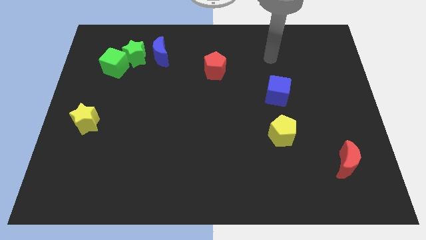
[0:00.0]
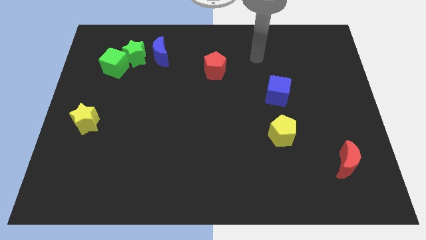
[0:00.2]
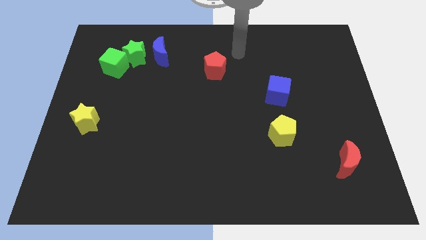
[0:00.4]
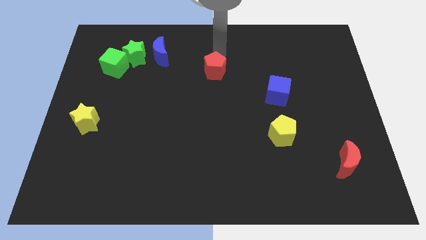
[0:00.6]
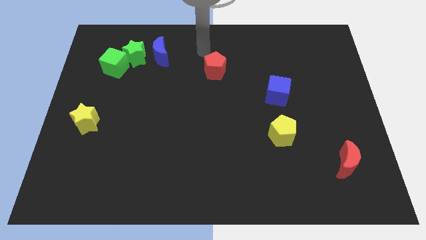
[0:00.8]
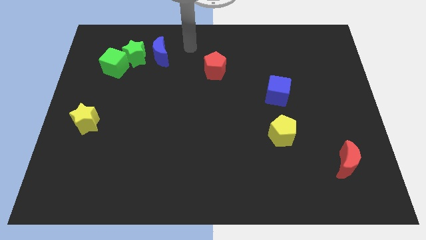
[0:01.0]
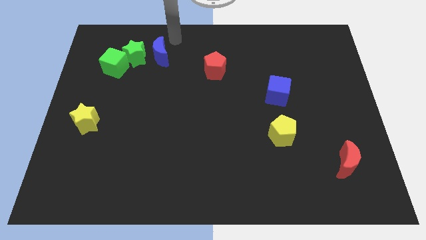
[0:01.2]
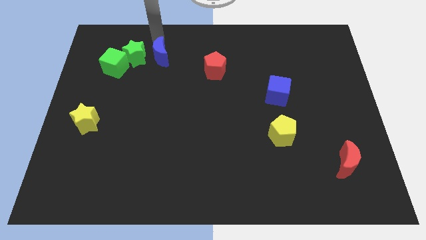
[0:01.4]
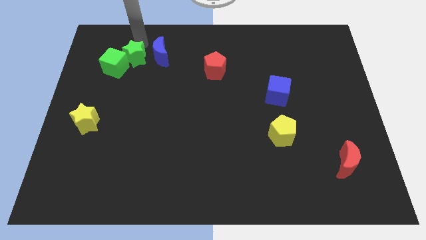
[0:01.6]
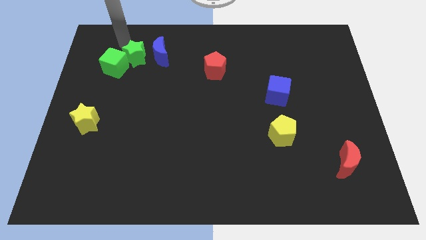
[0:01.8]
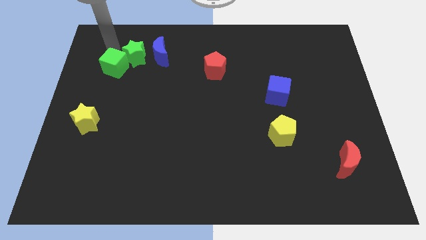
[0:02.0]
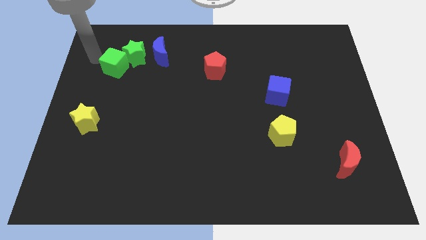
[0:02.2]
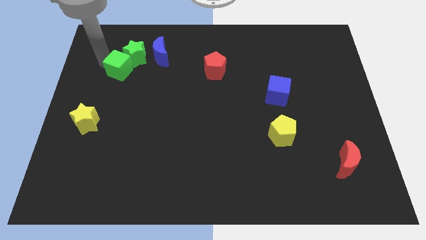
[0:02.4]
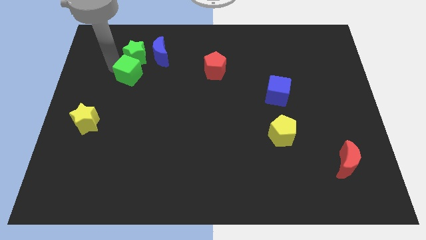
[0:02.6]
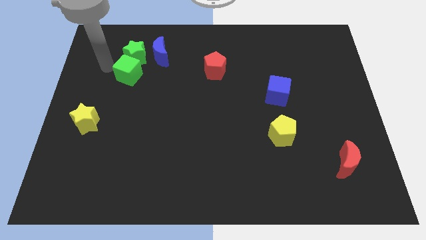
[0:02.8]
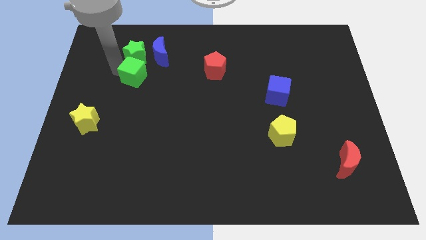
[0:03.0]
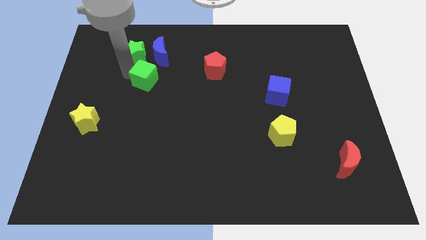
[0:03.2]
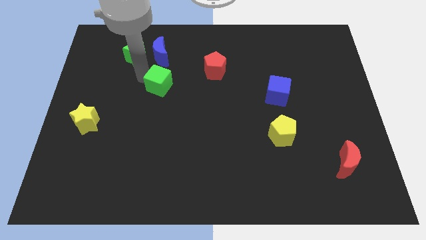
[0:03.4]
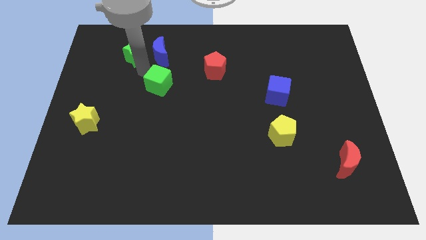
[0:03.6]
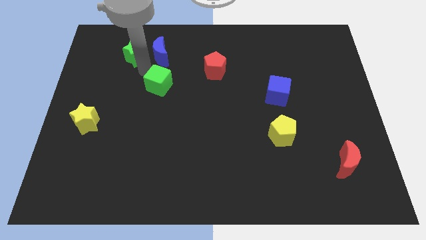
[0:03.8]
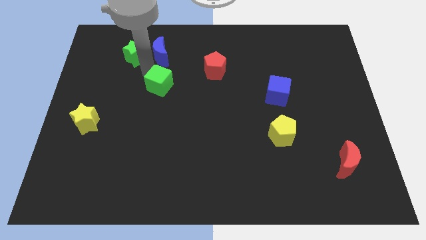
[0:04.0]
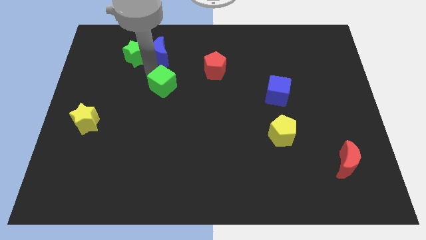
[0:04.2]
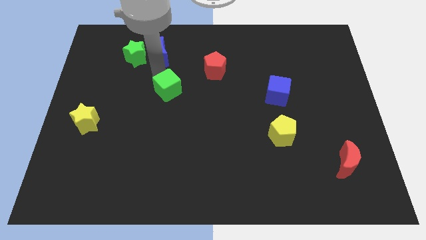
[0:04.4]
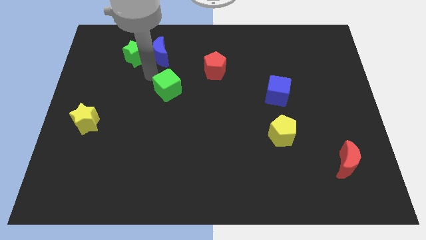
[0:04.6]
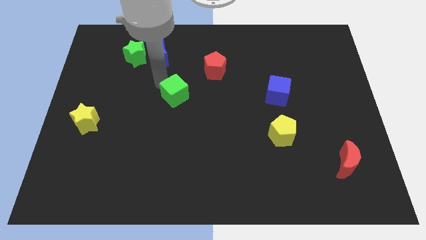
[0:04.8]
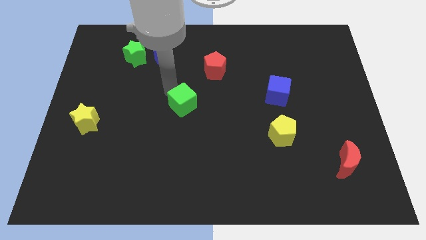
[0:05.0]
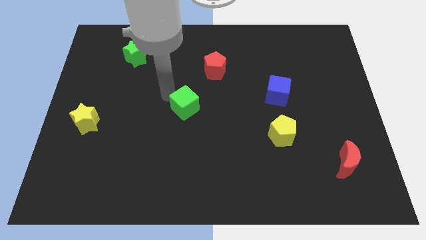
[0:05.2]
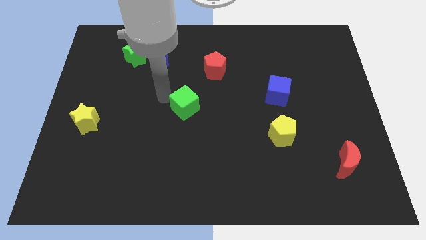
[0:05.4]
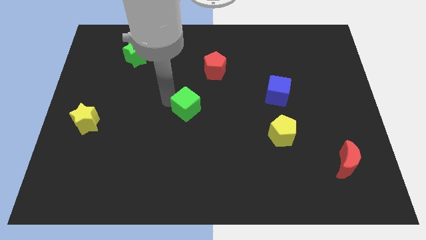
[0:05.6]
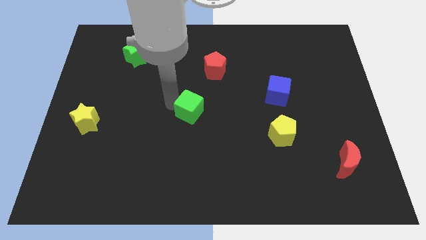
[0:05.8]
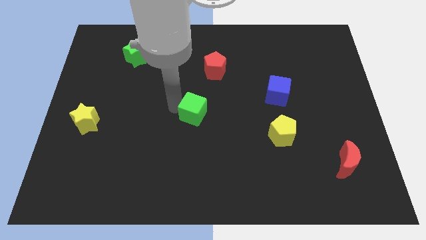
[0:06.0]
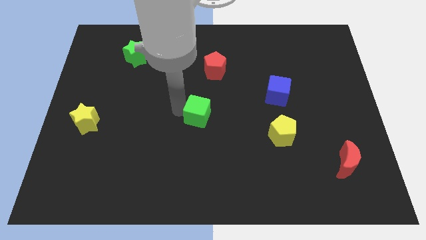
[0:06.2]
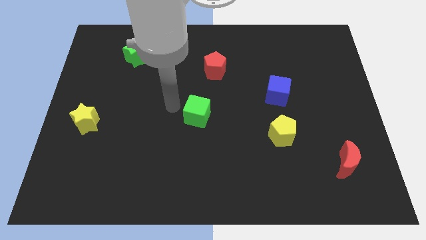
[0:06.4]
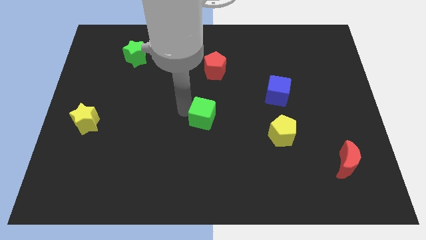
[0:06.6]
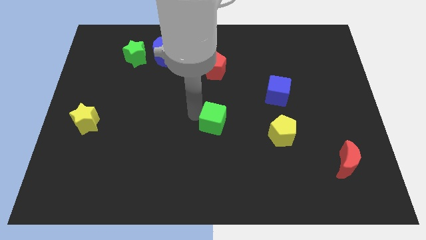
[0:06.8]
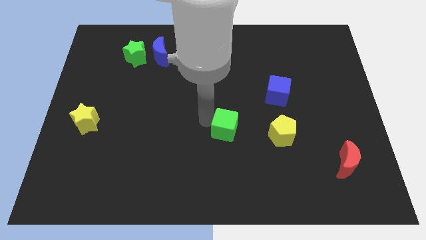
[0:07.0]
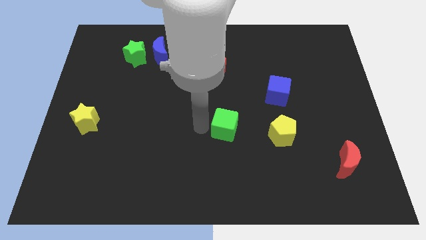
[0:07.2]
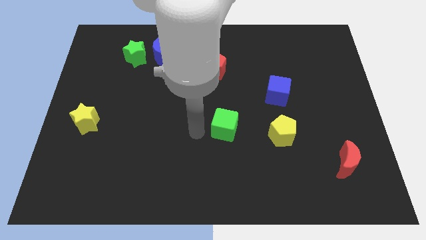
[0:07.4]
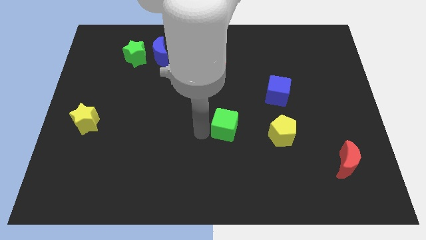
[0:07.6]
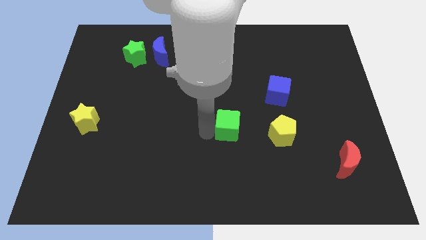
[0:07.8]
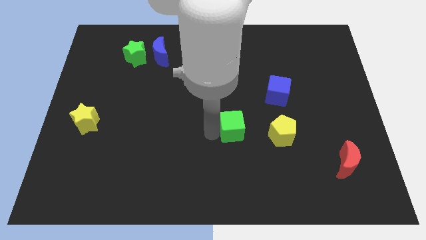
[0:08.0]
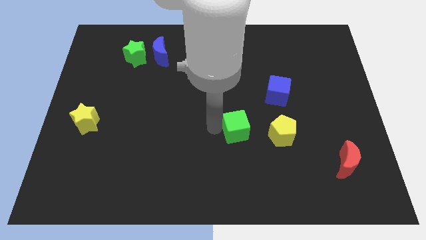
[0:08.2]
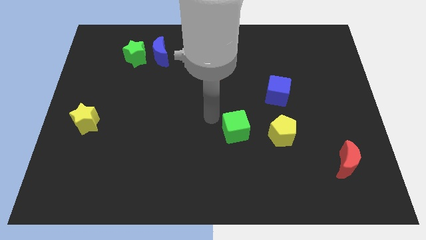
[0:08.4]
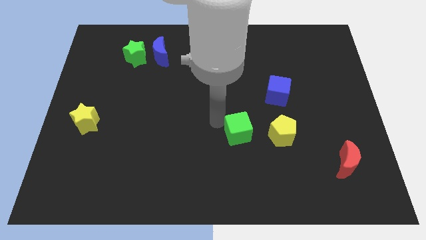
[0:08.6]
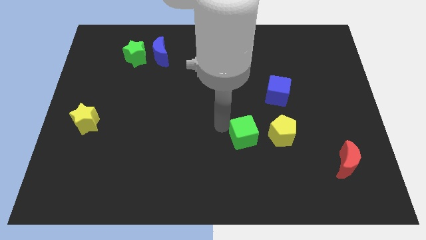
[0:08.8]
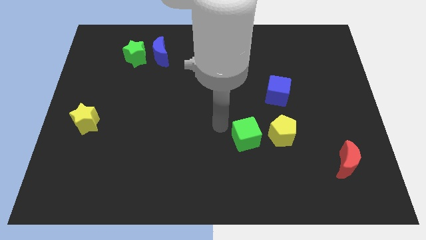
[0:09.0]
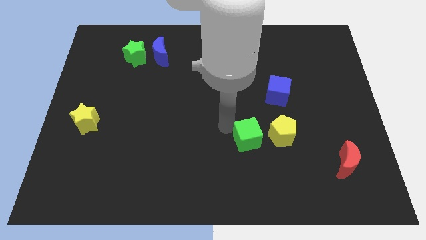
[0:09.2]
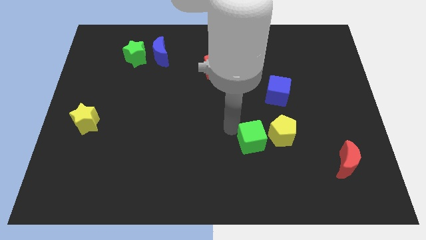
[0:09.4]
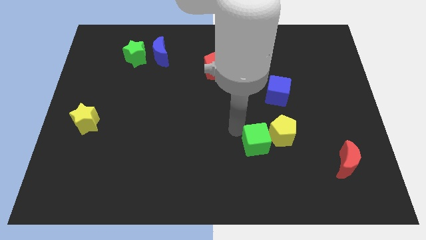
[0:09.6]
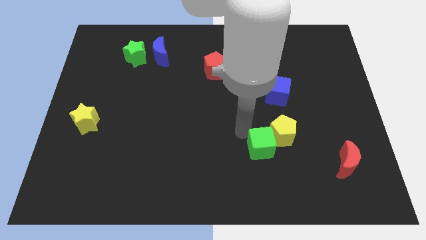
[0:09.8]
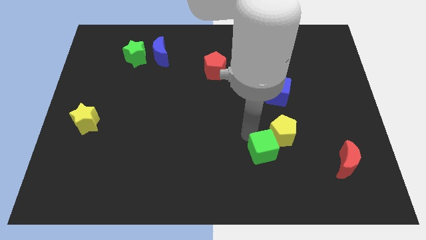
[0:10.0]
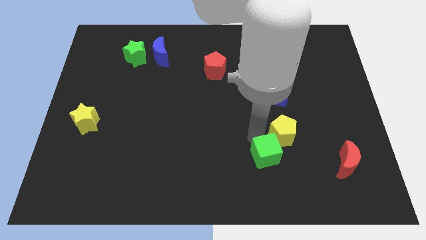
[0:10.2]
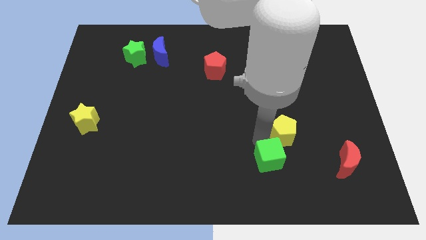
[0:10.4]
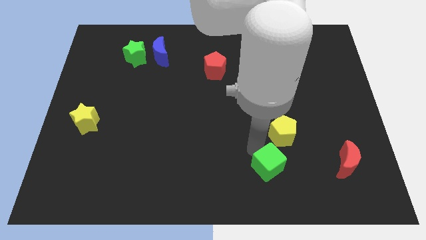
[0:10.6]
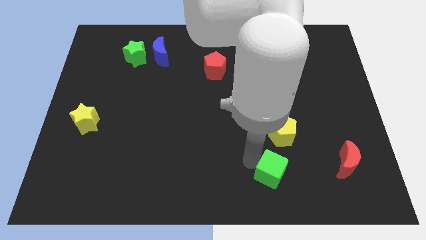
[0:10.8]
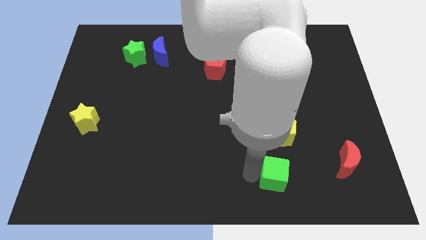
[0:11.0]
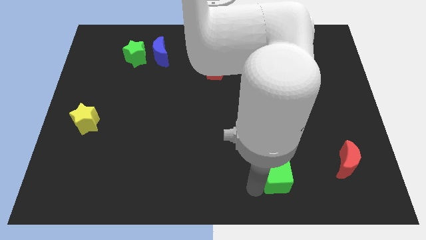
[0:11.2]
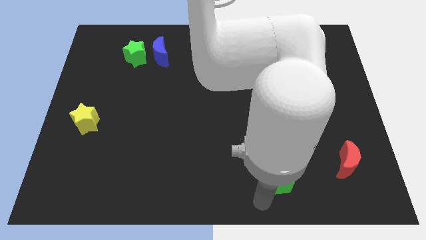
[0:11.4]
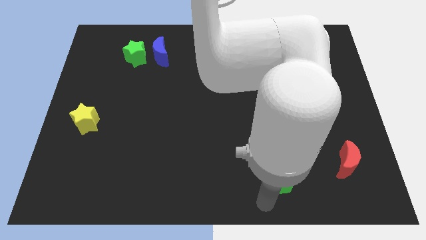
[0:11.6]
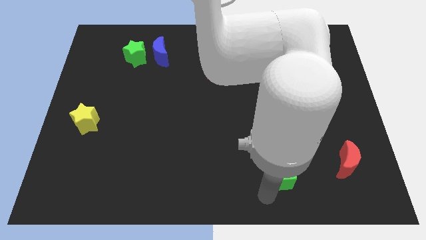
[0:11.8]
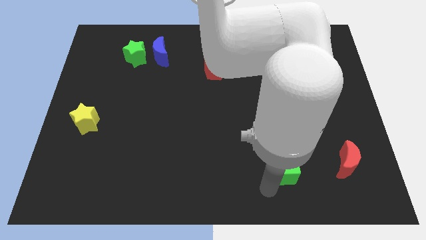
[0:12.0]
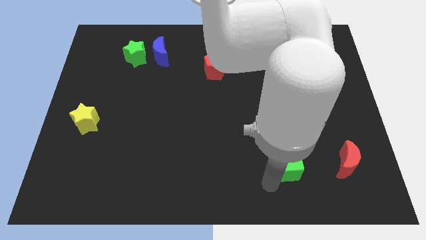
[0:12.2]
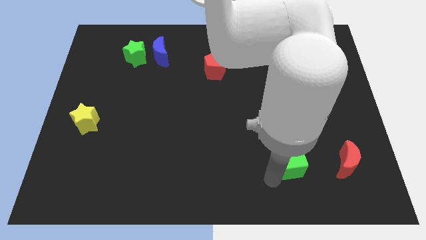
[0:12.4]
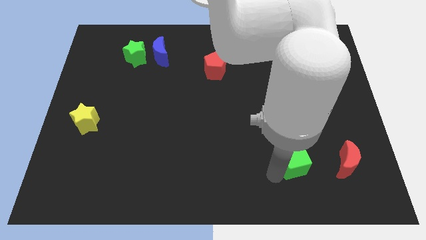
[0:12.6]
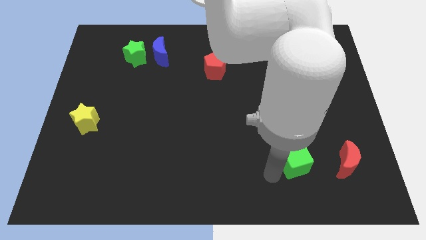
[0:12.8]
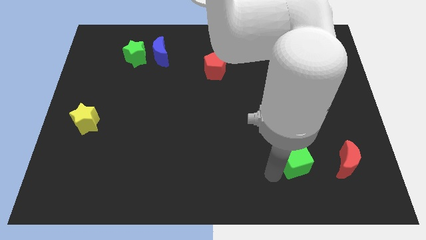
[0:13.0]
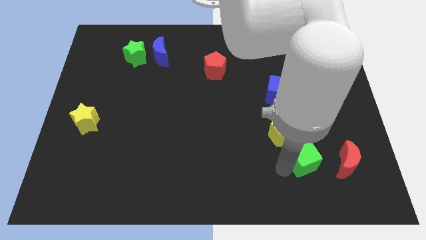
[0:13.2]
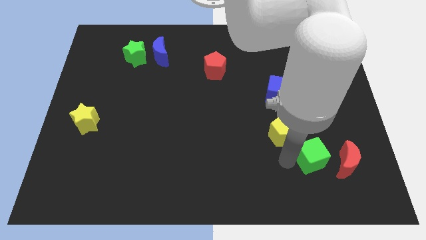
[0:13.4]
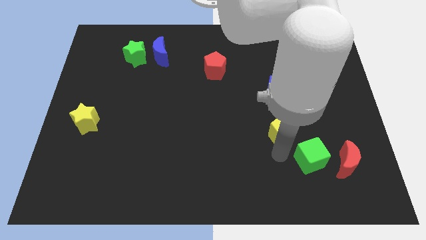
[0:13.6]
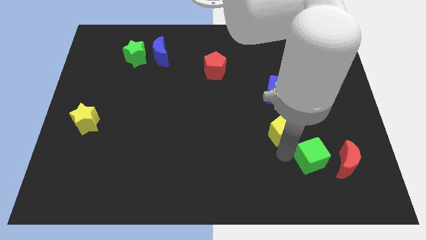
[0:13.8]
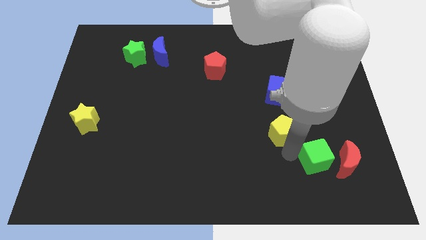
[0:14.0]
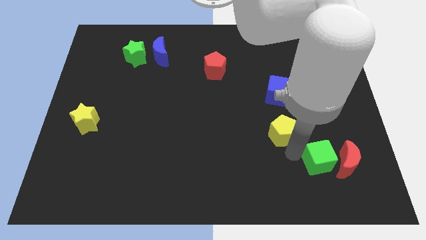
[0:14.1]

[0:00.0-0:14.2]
move the green cube to the red moon
